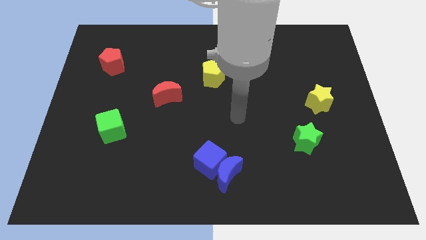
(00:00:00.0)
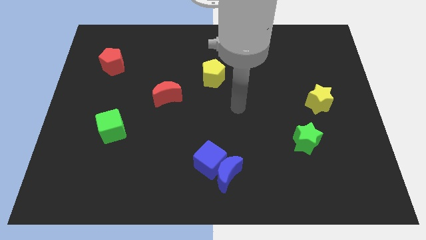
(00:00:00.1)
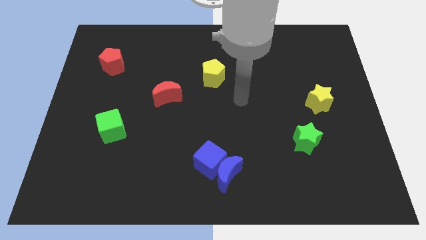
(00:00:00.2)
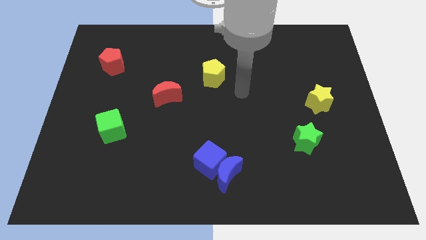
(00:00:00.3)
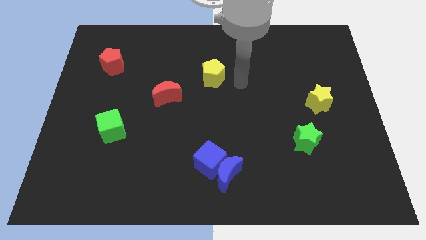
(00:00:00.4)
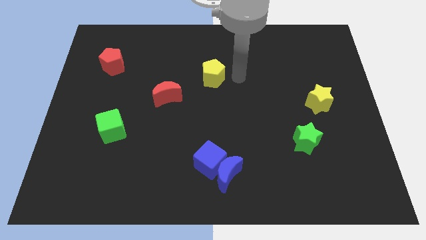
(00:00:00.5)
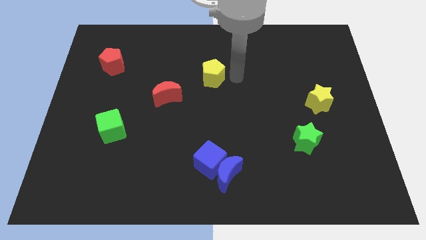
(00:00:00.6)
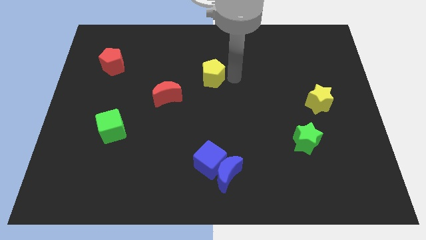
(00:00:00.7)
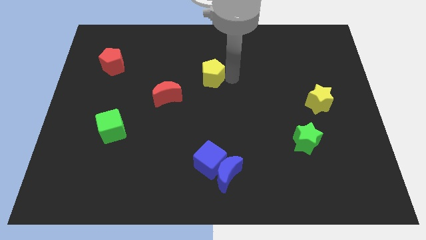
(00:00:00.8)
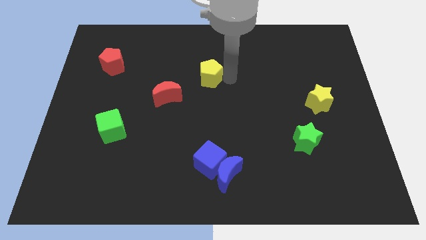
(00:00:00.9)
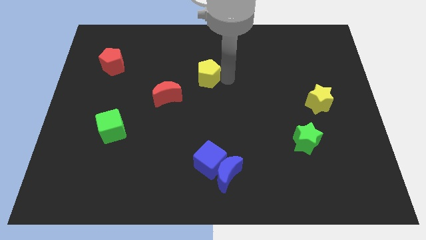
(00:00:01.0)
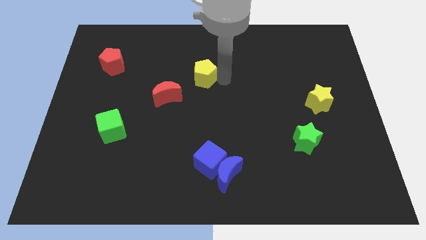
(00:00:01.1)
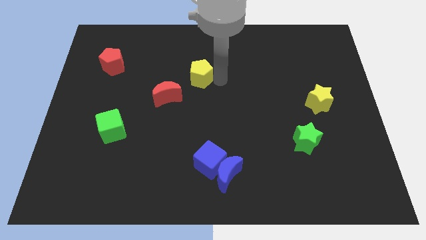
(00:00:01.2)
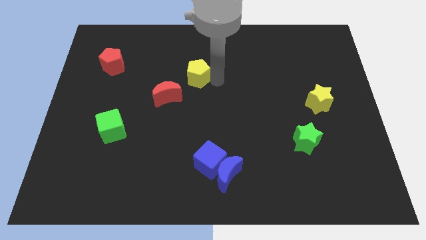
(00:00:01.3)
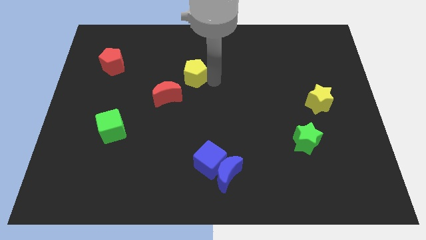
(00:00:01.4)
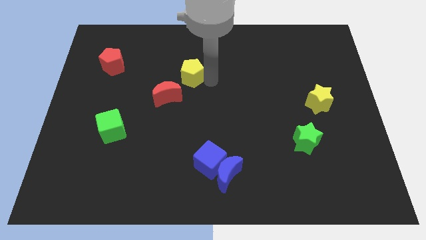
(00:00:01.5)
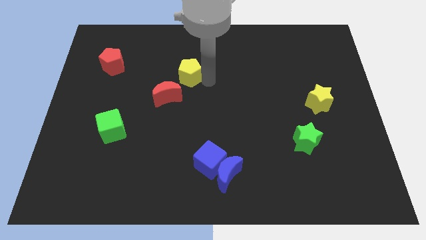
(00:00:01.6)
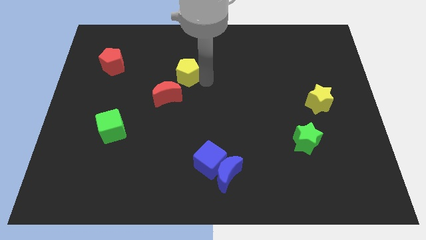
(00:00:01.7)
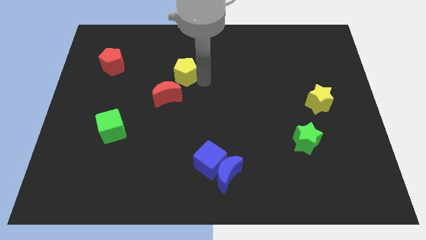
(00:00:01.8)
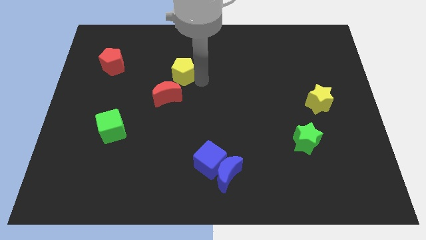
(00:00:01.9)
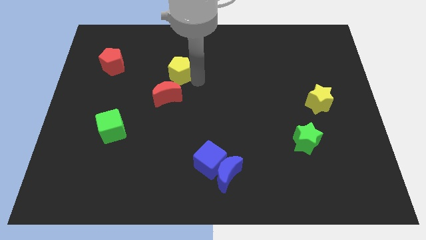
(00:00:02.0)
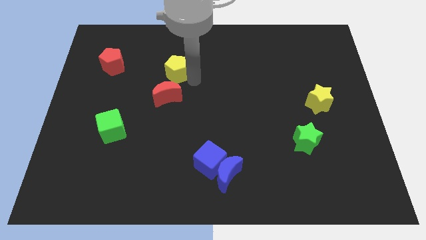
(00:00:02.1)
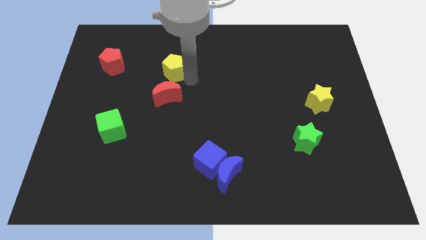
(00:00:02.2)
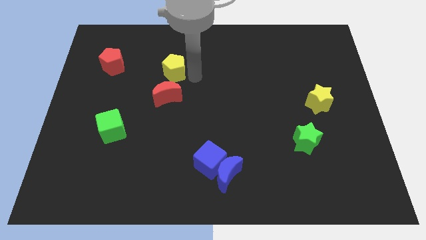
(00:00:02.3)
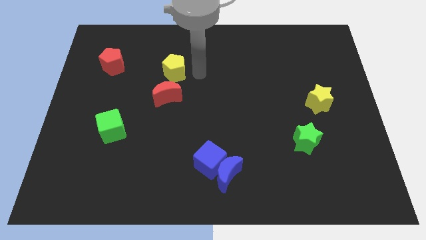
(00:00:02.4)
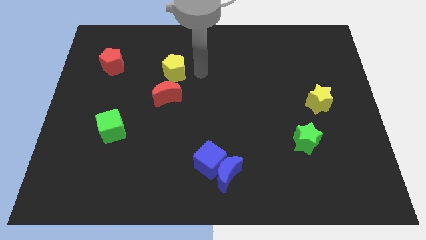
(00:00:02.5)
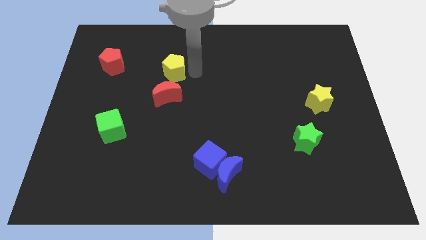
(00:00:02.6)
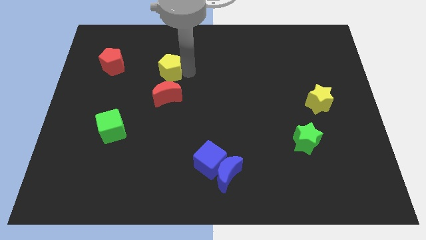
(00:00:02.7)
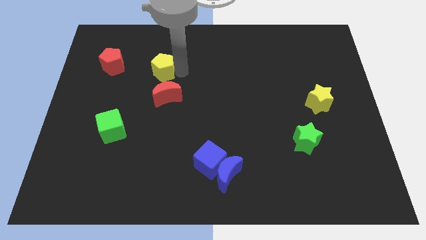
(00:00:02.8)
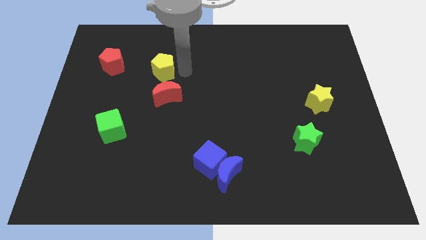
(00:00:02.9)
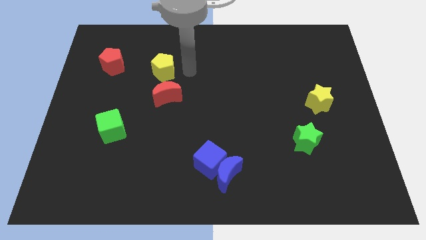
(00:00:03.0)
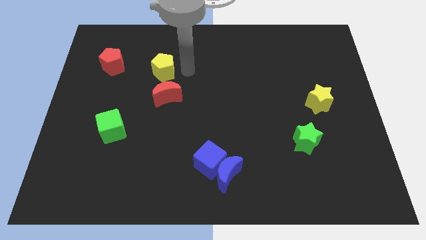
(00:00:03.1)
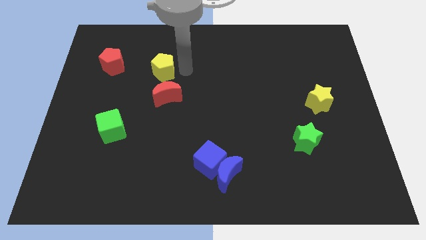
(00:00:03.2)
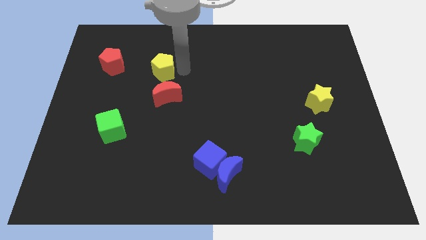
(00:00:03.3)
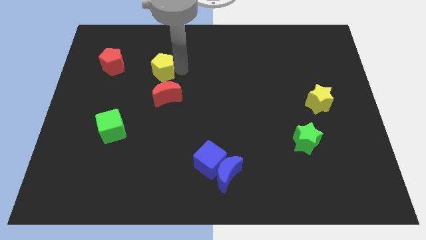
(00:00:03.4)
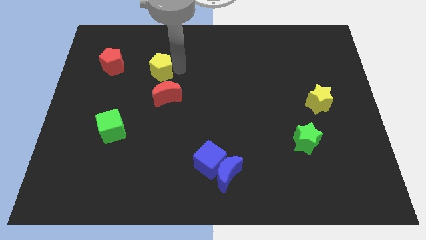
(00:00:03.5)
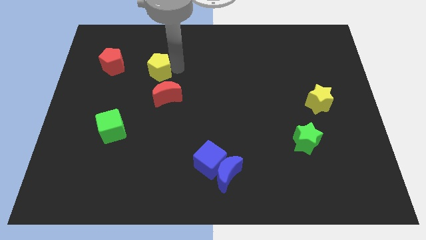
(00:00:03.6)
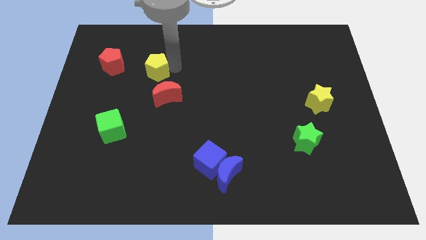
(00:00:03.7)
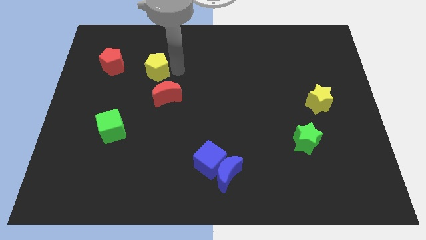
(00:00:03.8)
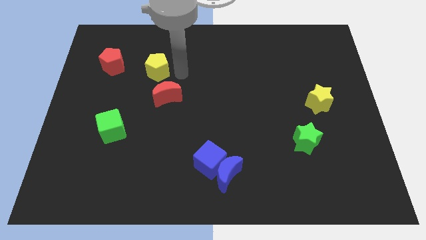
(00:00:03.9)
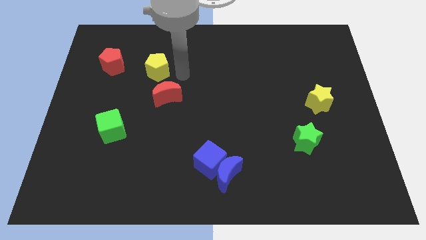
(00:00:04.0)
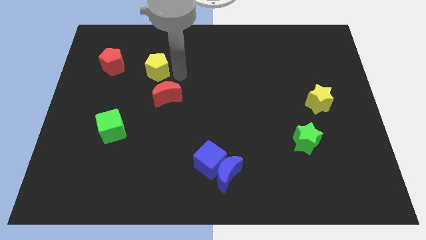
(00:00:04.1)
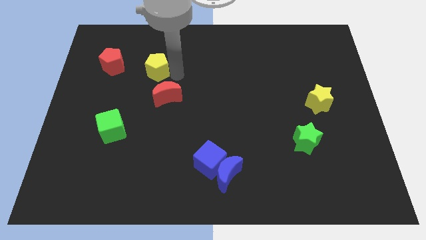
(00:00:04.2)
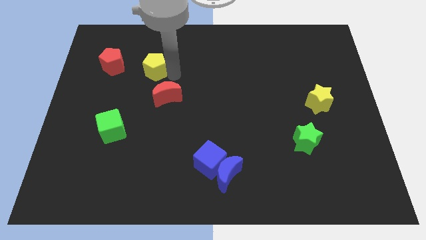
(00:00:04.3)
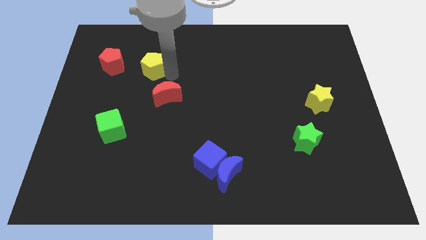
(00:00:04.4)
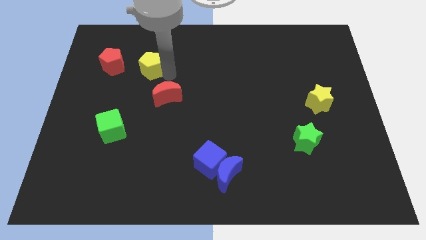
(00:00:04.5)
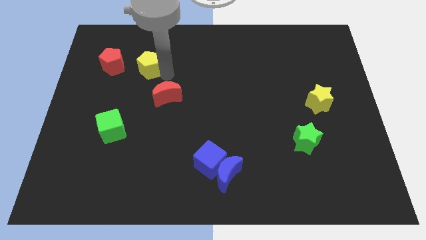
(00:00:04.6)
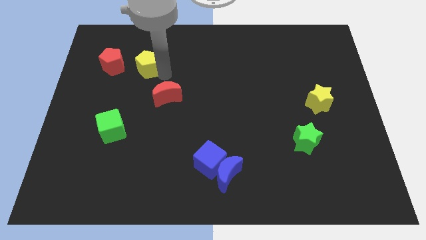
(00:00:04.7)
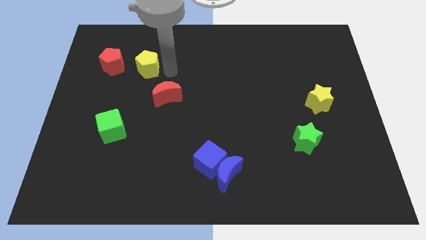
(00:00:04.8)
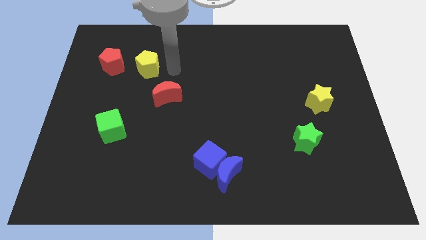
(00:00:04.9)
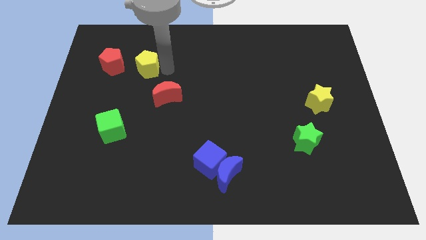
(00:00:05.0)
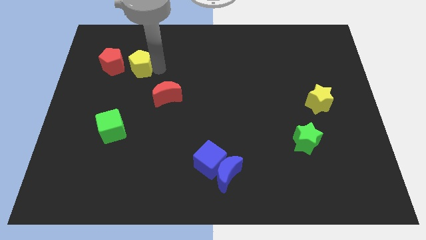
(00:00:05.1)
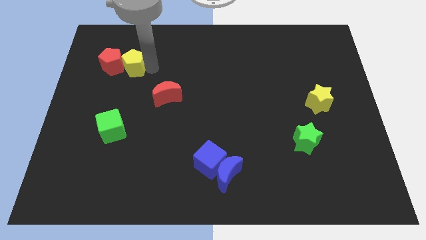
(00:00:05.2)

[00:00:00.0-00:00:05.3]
put the yellow pentagon towards the red pentagon

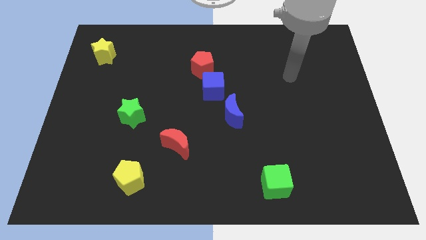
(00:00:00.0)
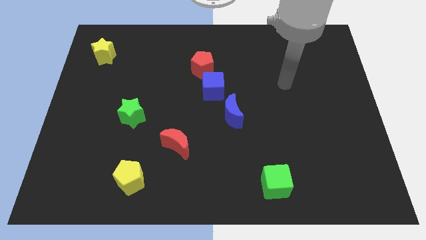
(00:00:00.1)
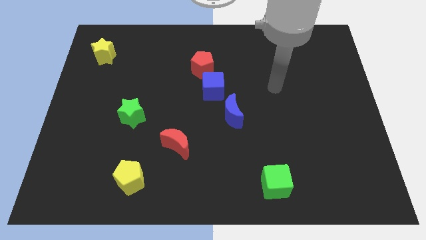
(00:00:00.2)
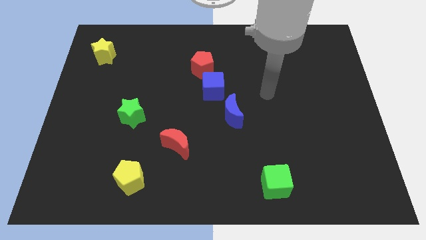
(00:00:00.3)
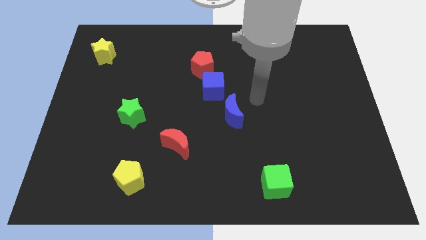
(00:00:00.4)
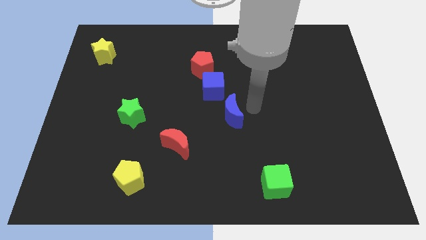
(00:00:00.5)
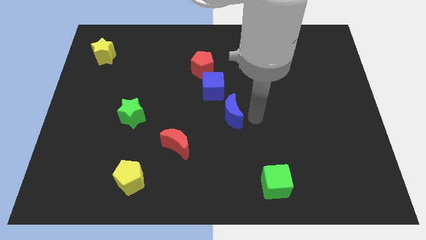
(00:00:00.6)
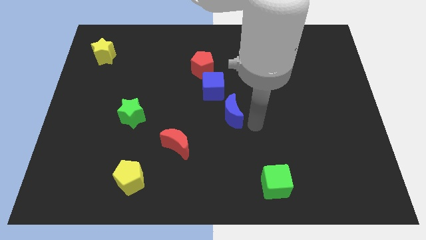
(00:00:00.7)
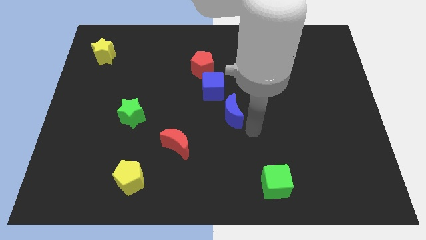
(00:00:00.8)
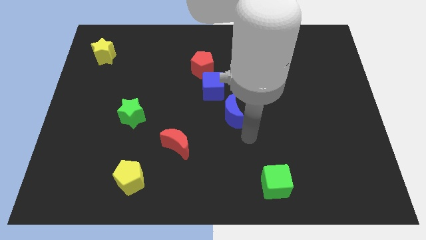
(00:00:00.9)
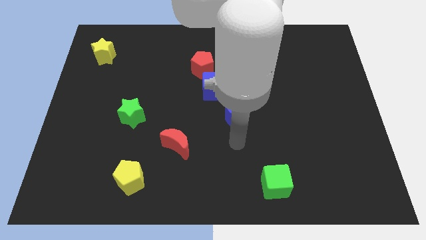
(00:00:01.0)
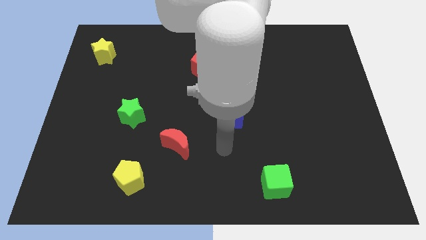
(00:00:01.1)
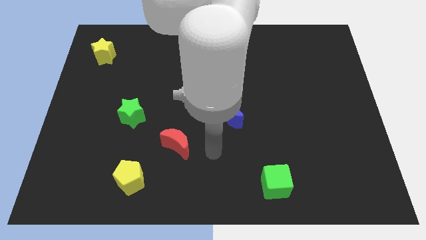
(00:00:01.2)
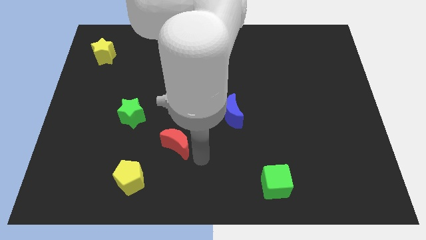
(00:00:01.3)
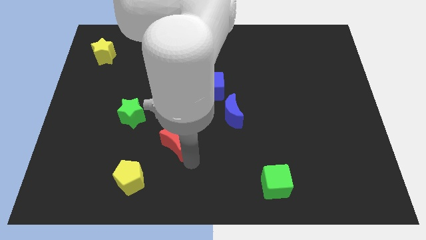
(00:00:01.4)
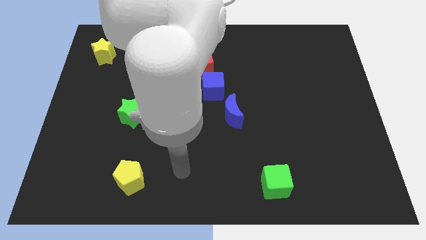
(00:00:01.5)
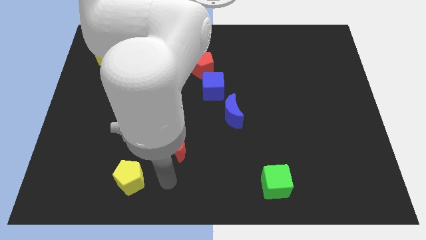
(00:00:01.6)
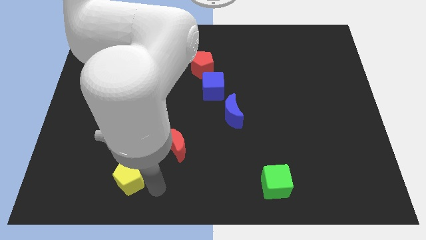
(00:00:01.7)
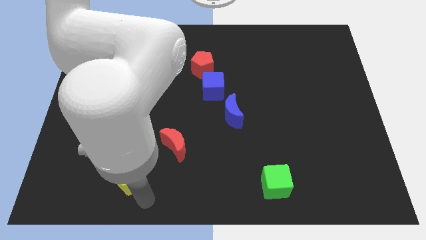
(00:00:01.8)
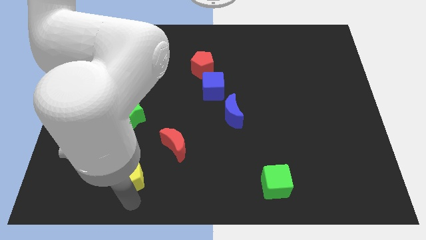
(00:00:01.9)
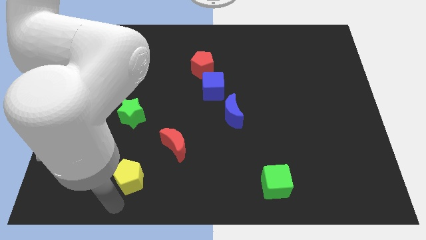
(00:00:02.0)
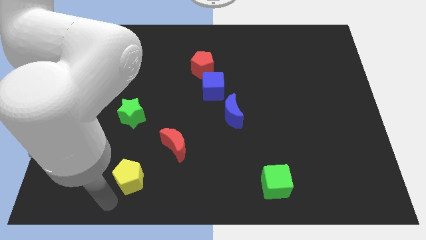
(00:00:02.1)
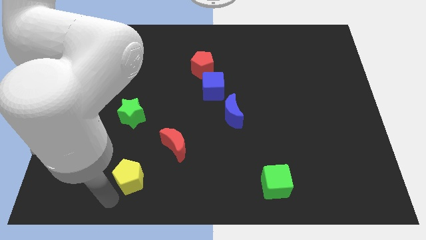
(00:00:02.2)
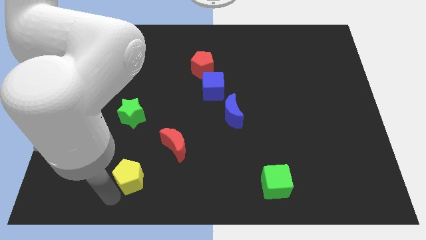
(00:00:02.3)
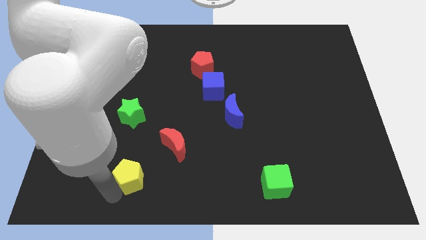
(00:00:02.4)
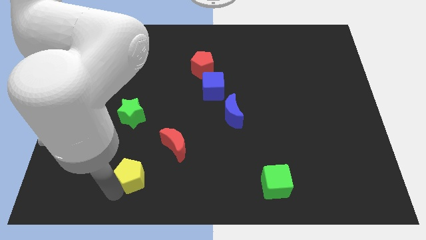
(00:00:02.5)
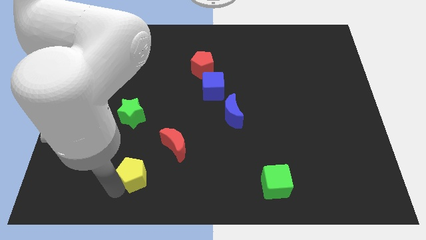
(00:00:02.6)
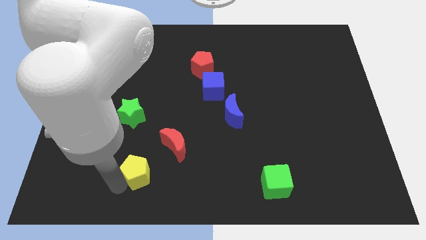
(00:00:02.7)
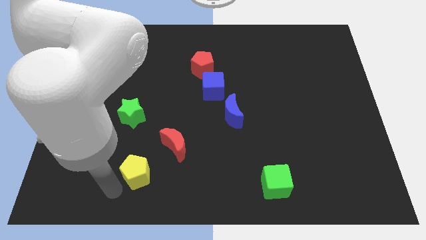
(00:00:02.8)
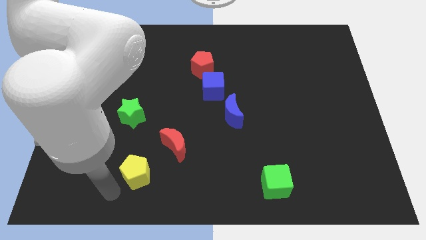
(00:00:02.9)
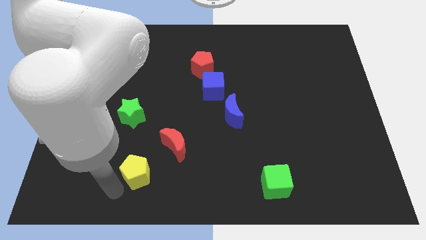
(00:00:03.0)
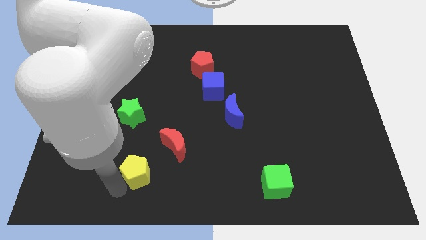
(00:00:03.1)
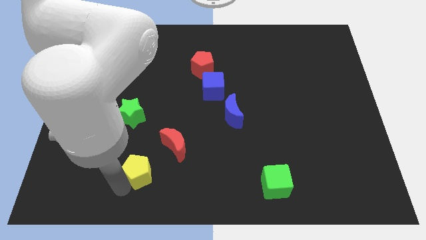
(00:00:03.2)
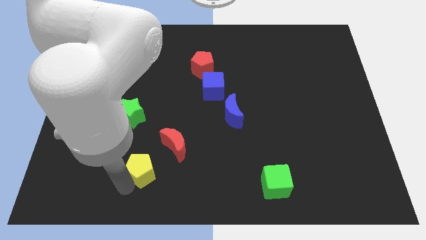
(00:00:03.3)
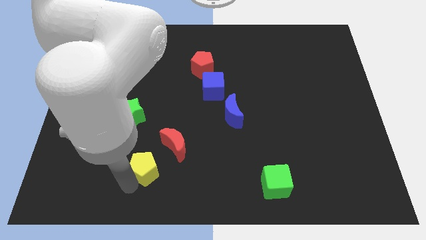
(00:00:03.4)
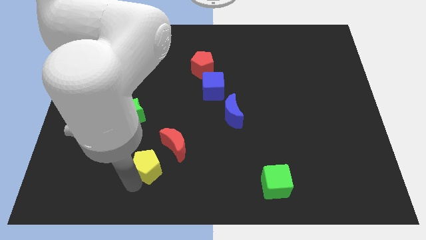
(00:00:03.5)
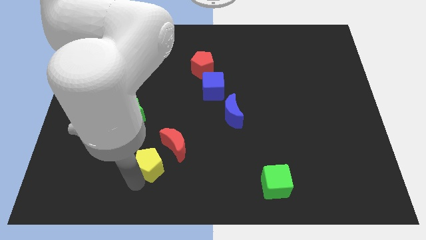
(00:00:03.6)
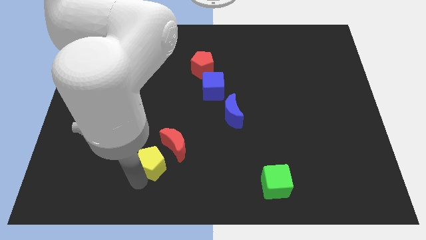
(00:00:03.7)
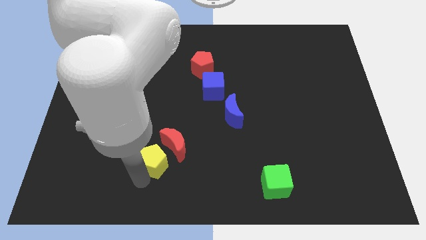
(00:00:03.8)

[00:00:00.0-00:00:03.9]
slide the yellow pentagon towards the red moon
